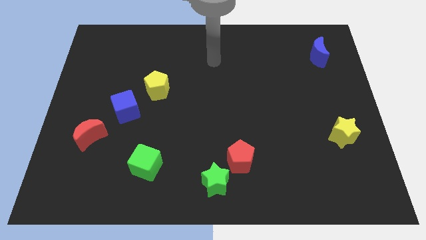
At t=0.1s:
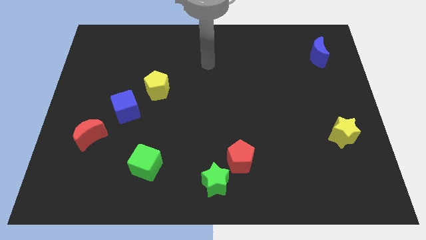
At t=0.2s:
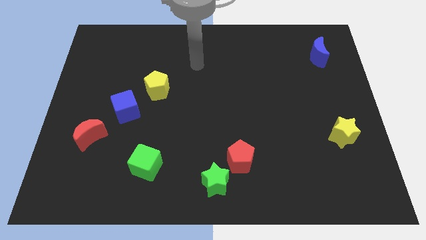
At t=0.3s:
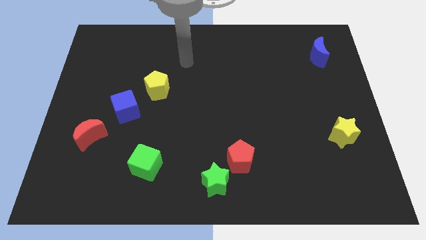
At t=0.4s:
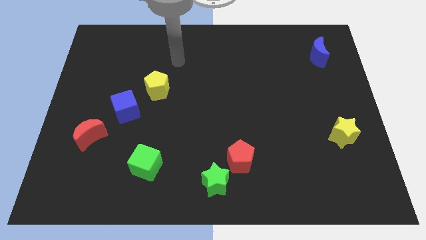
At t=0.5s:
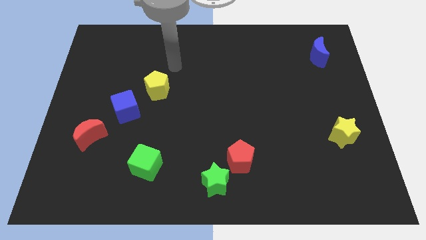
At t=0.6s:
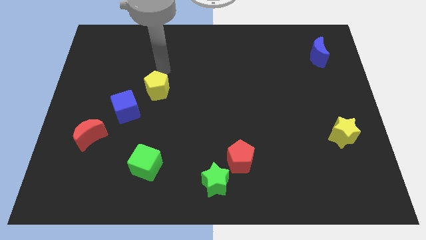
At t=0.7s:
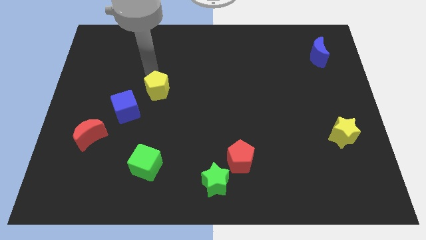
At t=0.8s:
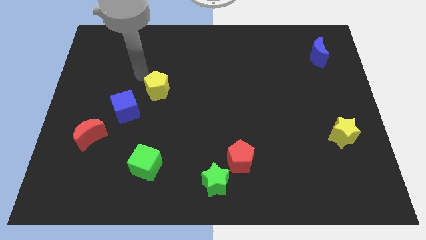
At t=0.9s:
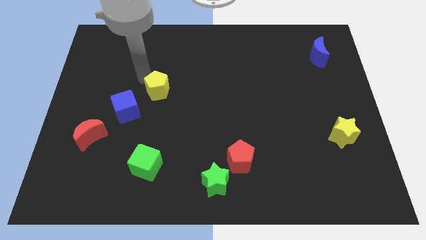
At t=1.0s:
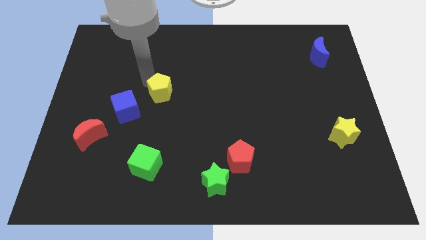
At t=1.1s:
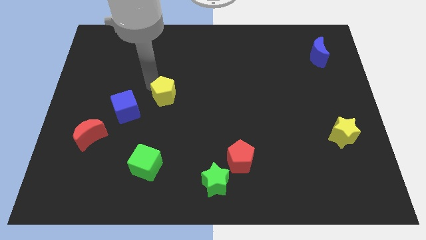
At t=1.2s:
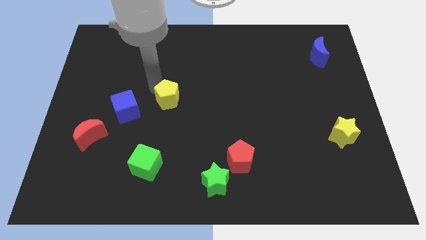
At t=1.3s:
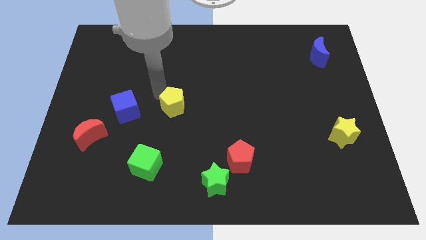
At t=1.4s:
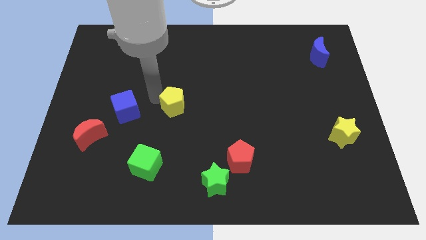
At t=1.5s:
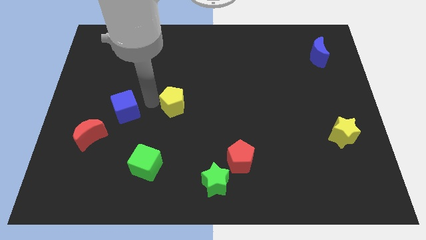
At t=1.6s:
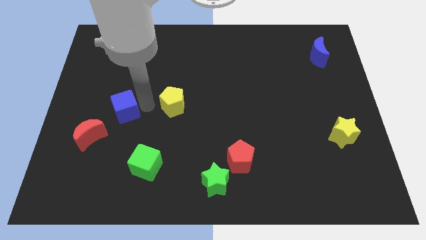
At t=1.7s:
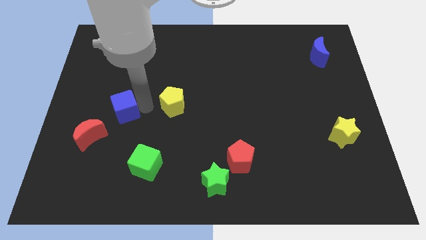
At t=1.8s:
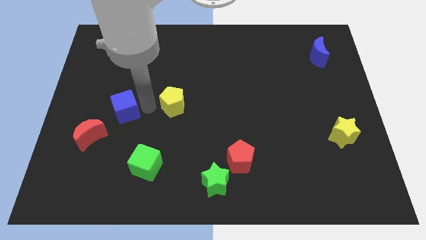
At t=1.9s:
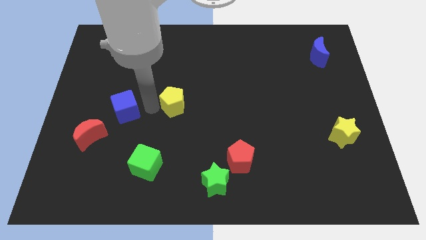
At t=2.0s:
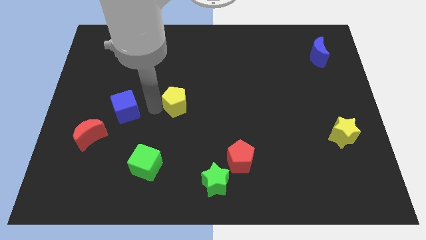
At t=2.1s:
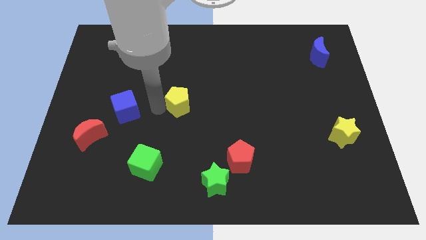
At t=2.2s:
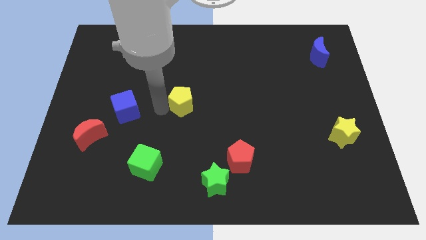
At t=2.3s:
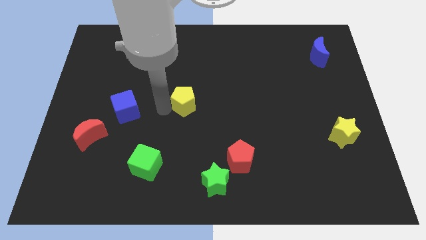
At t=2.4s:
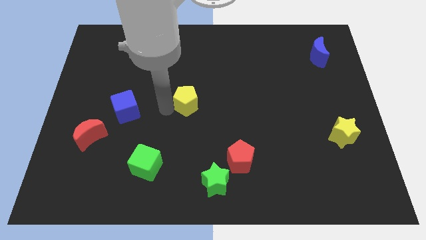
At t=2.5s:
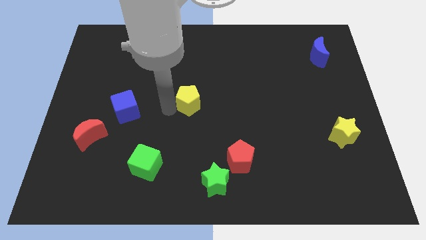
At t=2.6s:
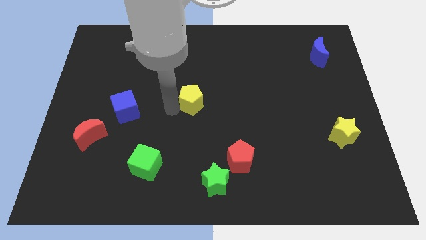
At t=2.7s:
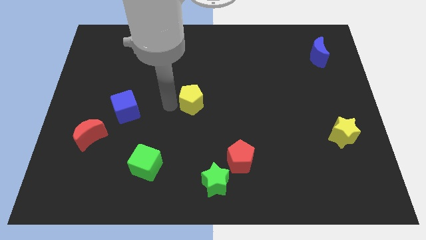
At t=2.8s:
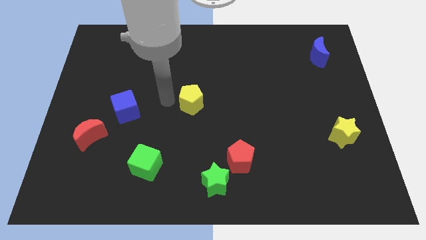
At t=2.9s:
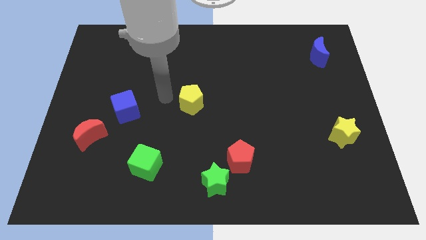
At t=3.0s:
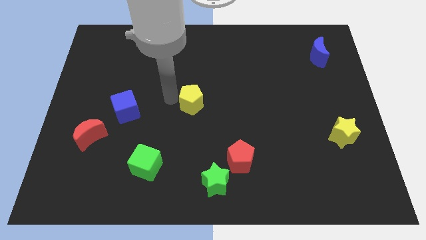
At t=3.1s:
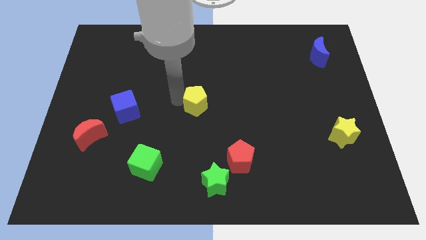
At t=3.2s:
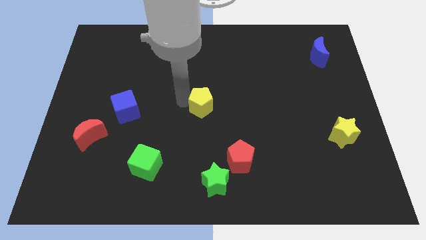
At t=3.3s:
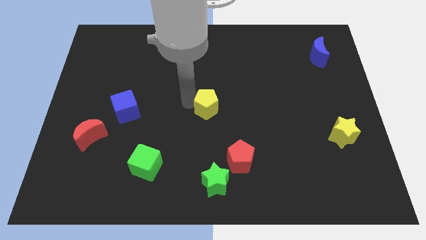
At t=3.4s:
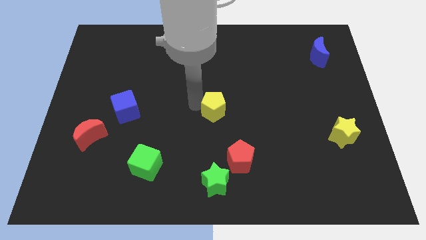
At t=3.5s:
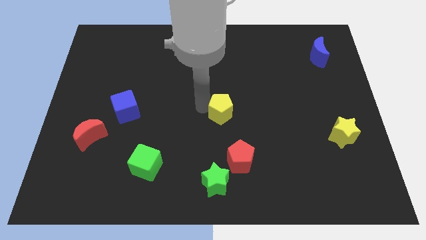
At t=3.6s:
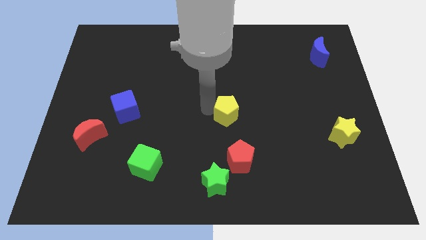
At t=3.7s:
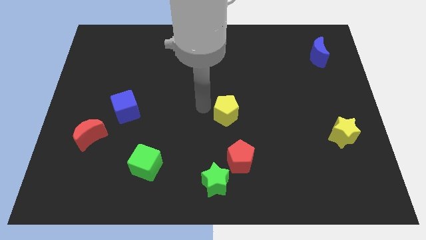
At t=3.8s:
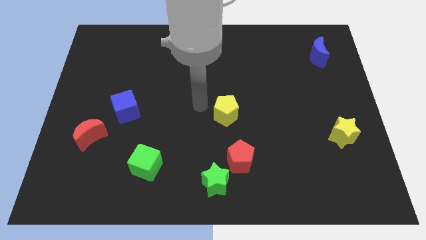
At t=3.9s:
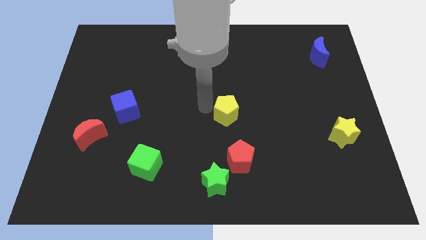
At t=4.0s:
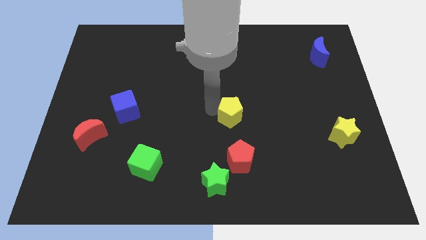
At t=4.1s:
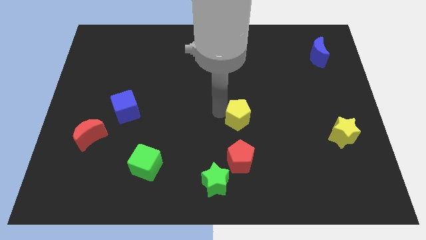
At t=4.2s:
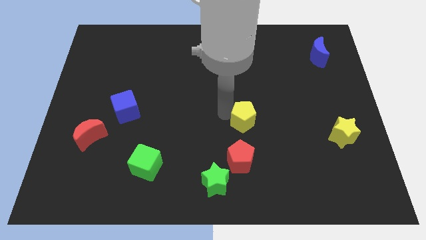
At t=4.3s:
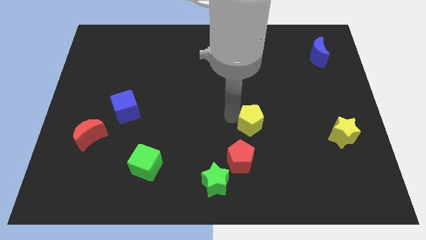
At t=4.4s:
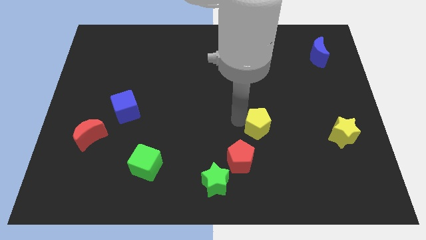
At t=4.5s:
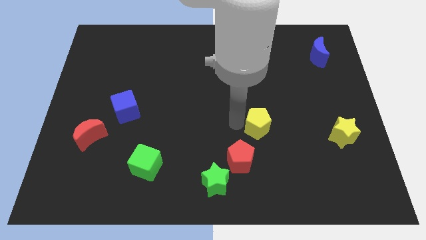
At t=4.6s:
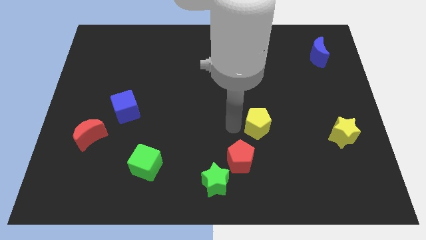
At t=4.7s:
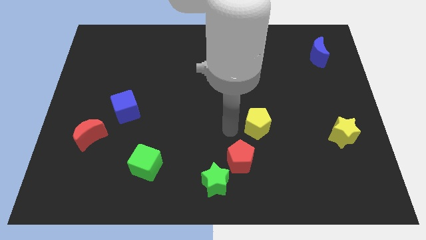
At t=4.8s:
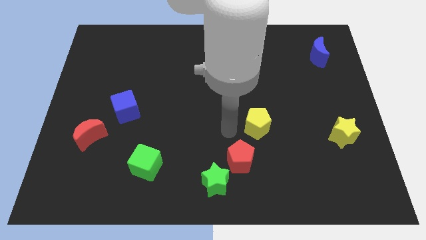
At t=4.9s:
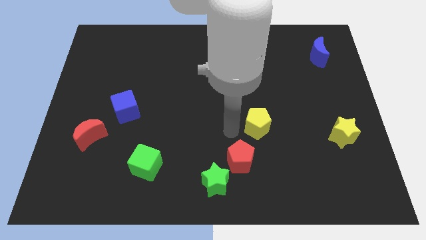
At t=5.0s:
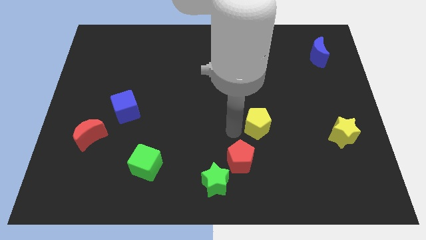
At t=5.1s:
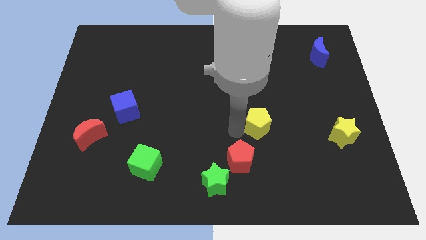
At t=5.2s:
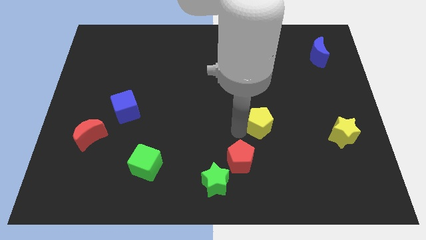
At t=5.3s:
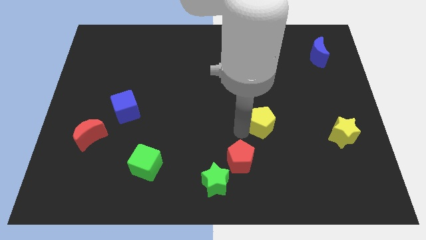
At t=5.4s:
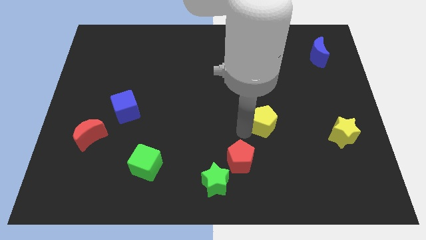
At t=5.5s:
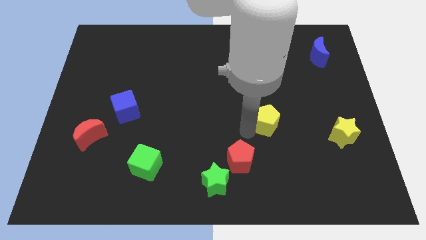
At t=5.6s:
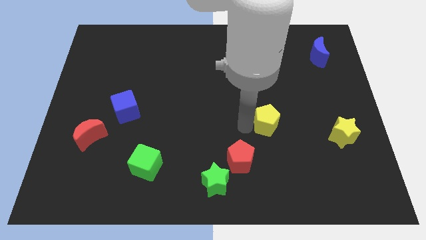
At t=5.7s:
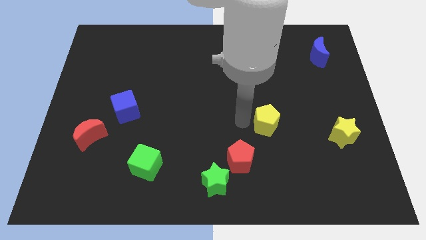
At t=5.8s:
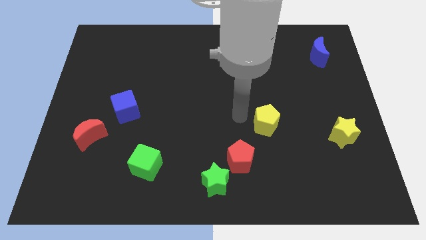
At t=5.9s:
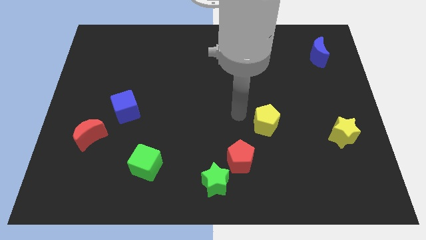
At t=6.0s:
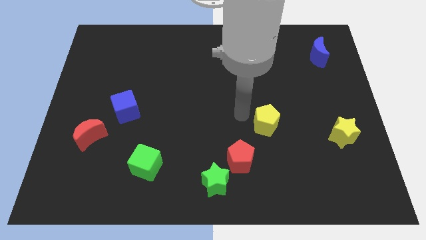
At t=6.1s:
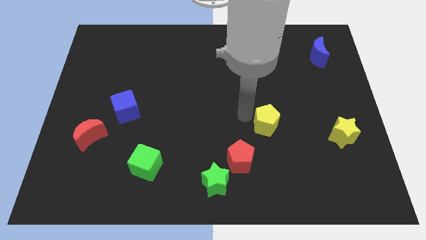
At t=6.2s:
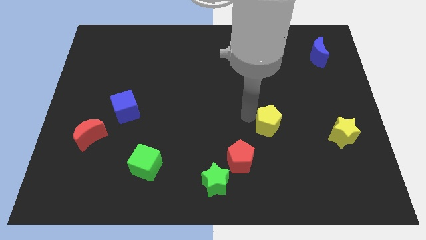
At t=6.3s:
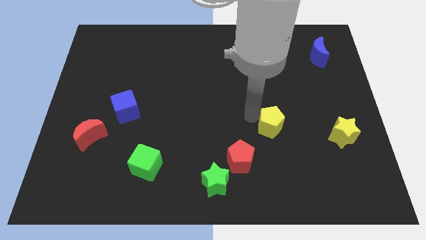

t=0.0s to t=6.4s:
push the yellow pentagon to the left of the yellow star

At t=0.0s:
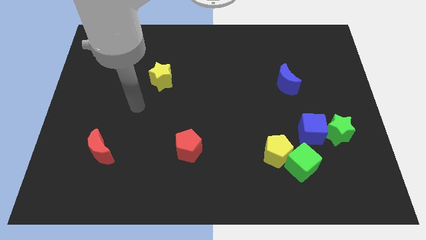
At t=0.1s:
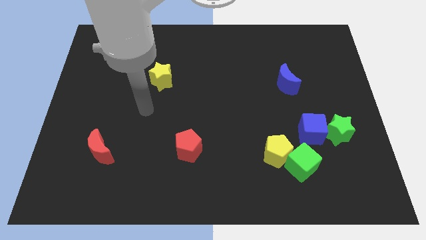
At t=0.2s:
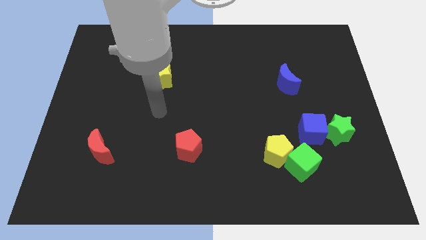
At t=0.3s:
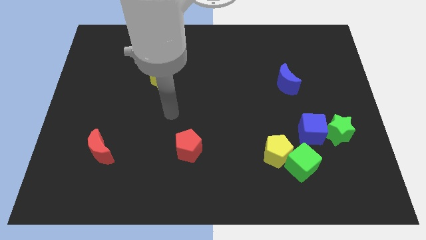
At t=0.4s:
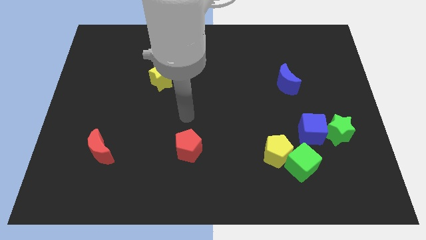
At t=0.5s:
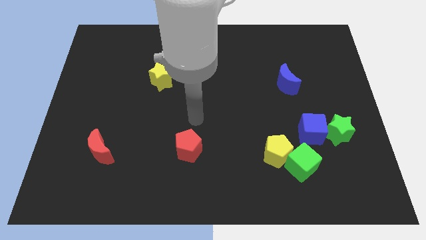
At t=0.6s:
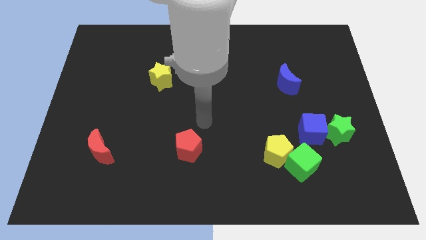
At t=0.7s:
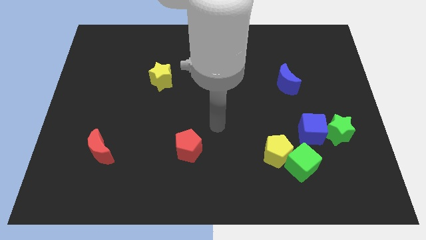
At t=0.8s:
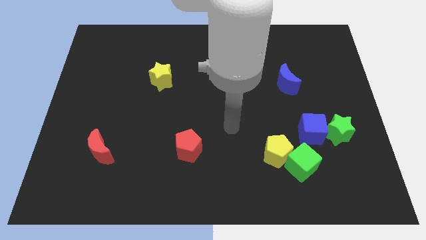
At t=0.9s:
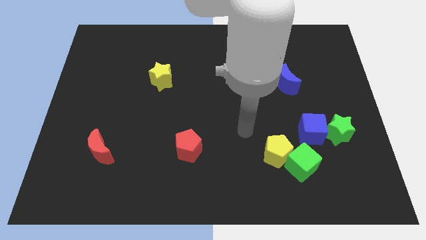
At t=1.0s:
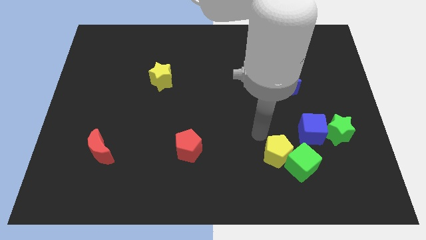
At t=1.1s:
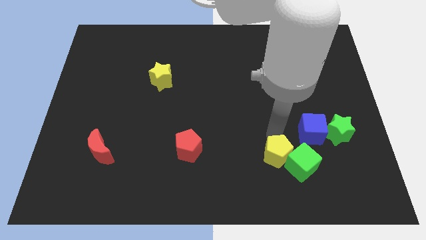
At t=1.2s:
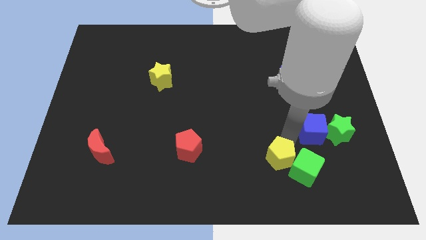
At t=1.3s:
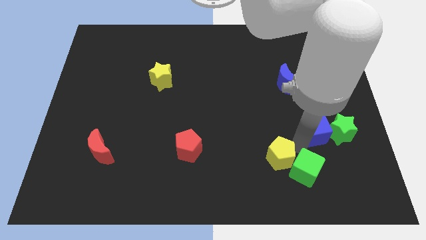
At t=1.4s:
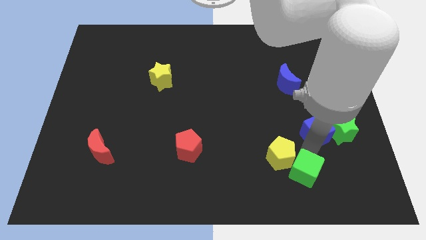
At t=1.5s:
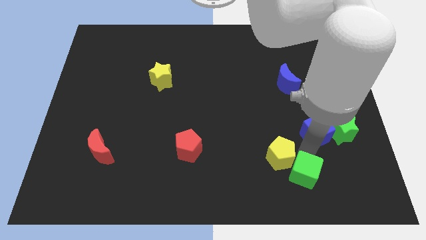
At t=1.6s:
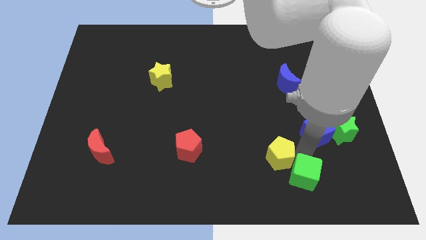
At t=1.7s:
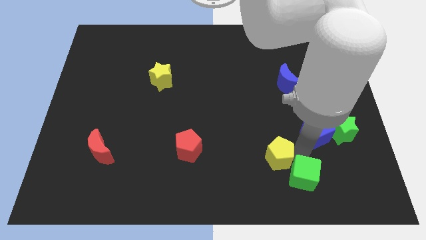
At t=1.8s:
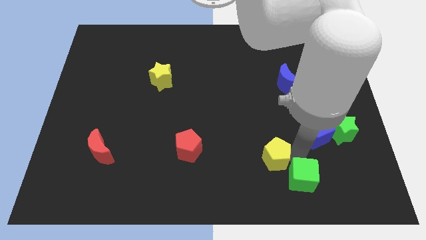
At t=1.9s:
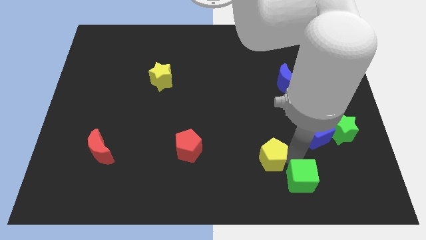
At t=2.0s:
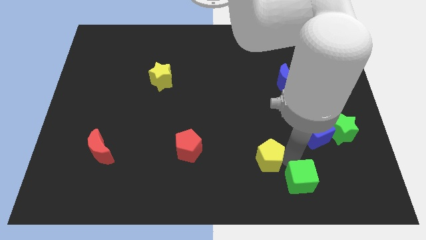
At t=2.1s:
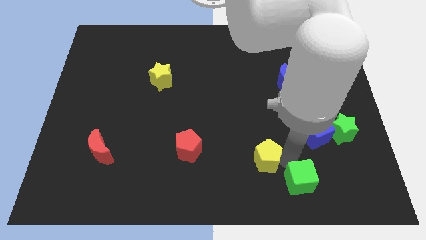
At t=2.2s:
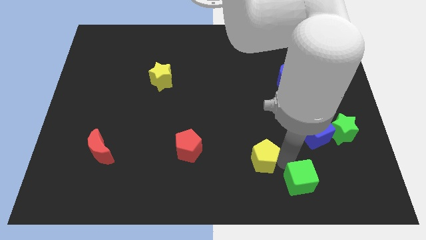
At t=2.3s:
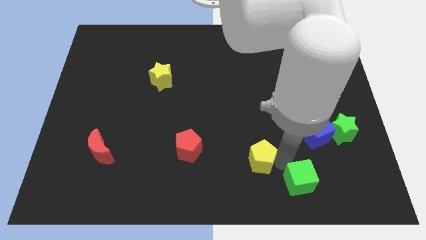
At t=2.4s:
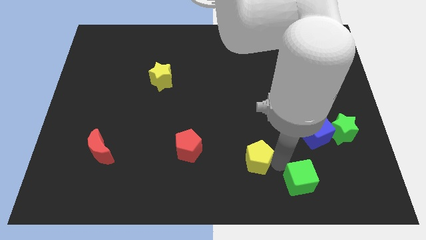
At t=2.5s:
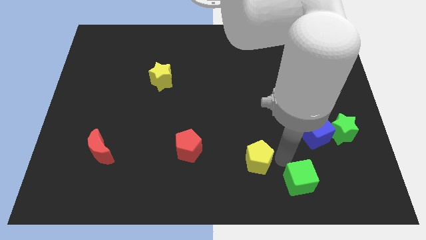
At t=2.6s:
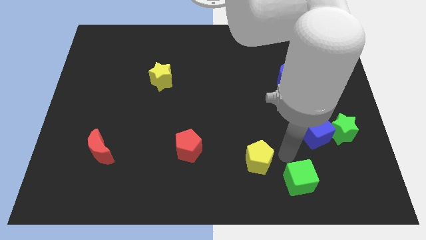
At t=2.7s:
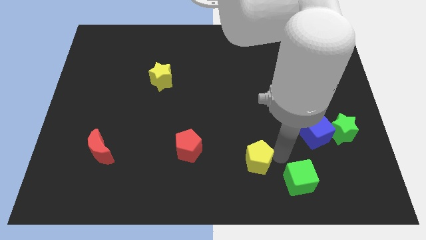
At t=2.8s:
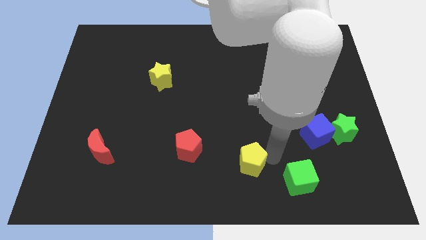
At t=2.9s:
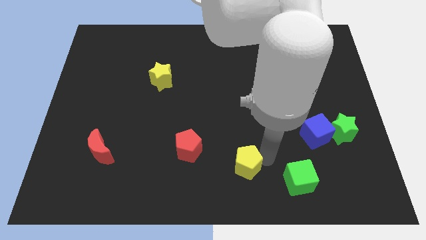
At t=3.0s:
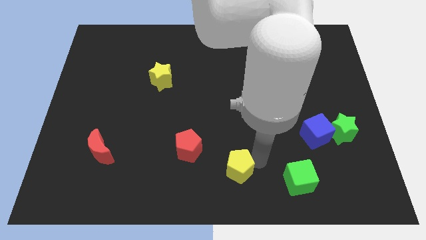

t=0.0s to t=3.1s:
push the yellow pentagon to the bottom right side of the red pentagon
